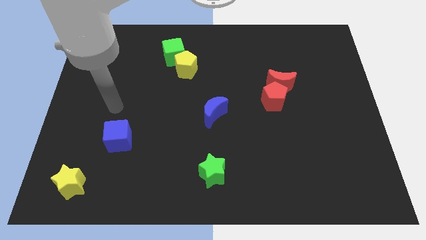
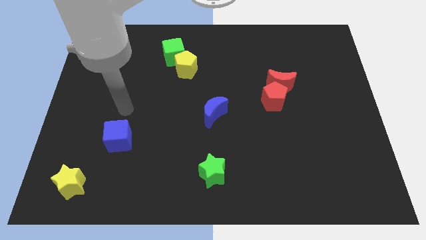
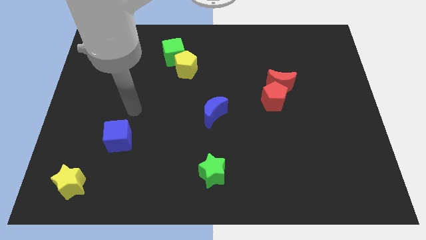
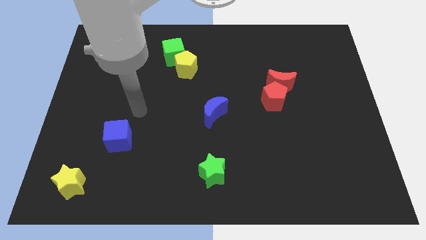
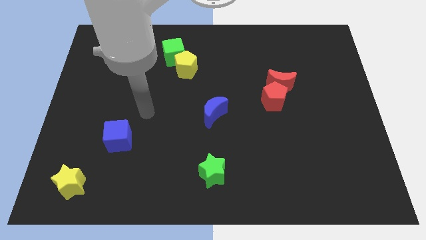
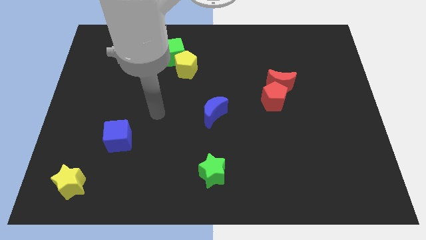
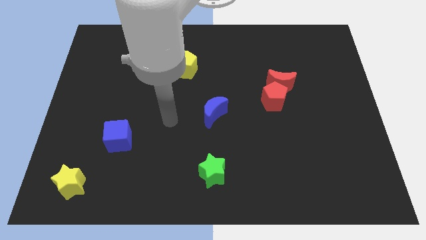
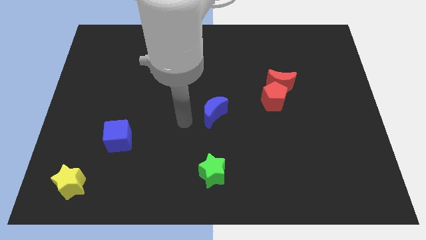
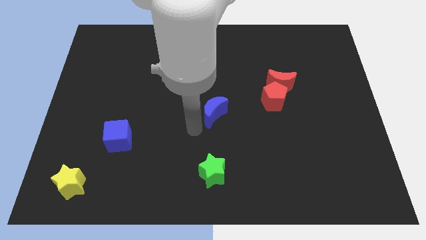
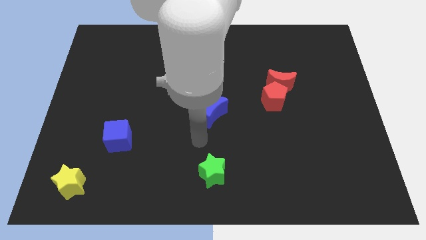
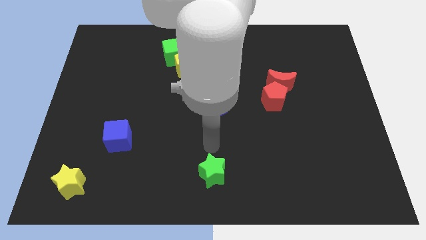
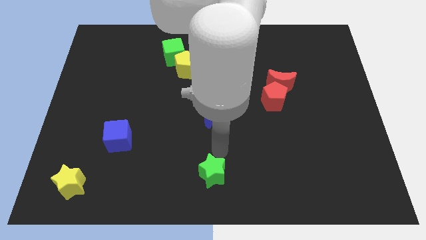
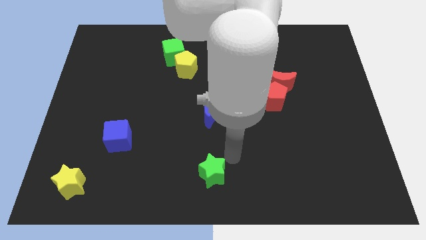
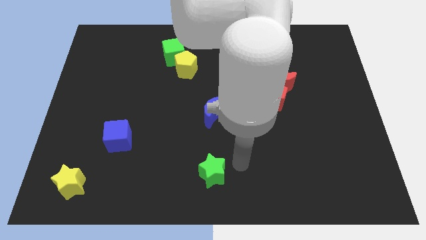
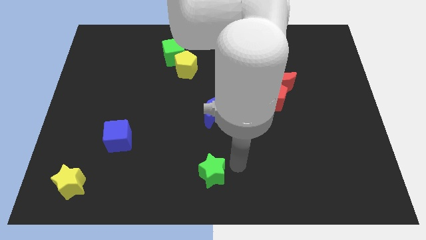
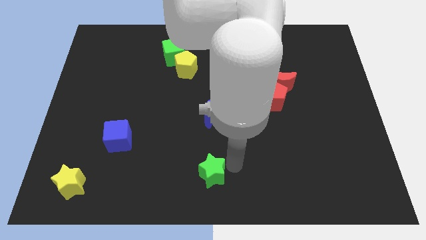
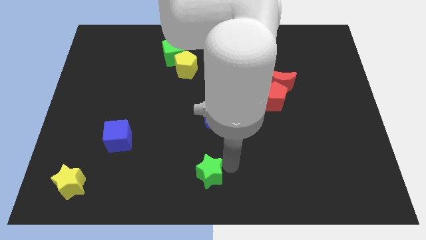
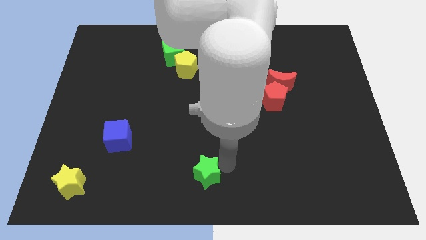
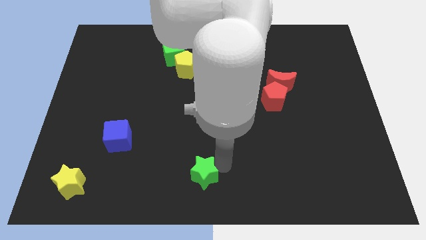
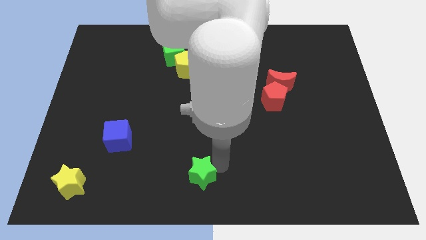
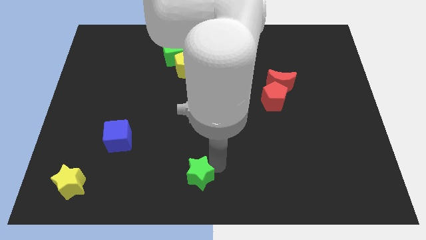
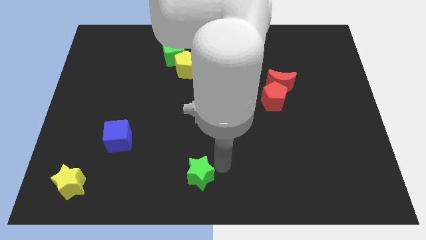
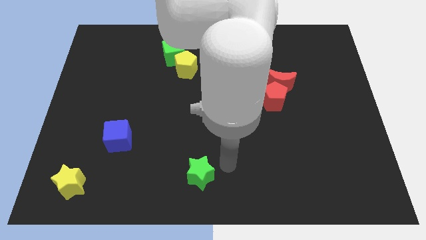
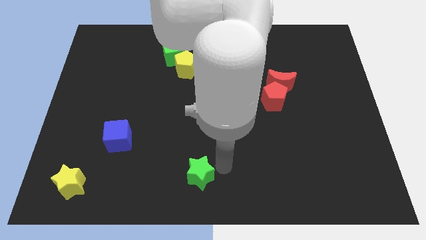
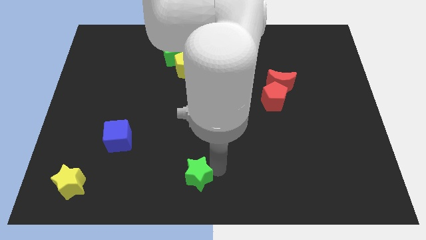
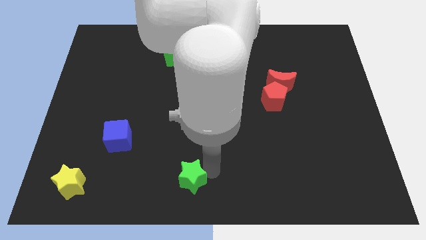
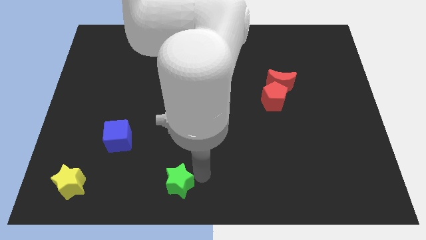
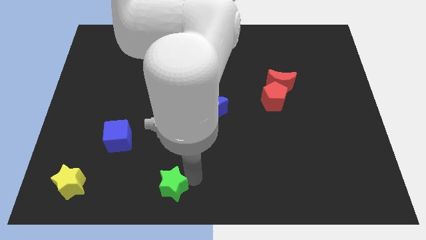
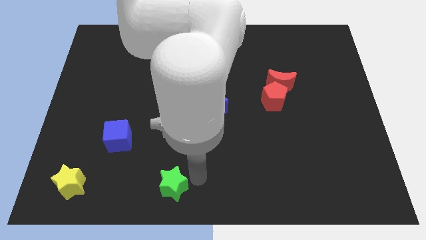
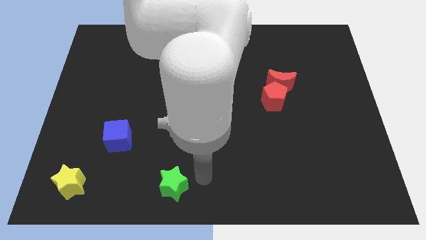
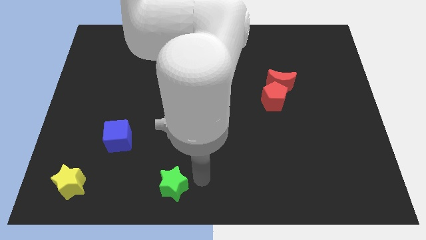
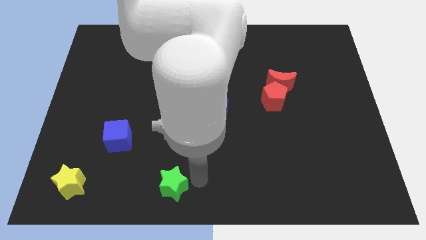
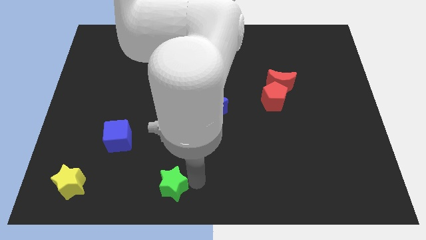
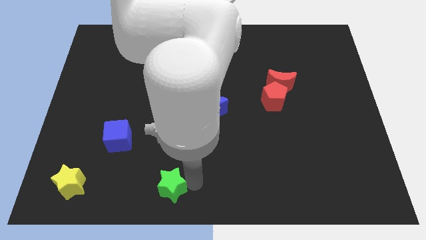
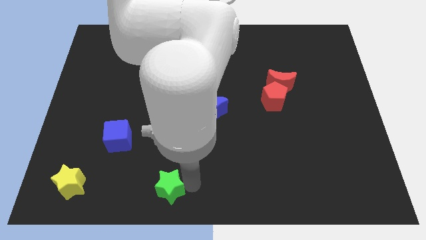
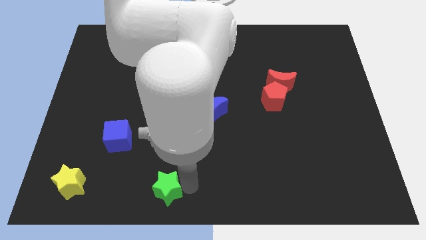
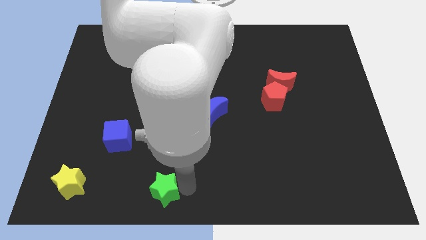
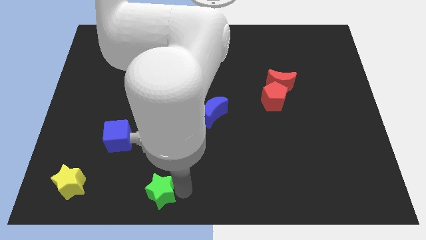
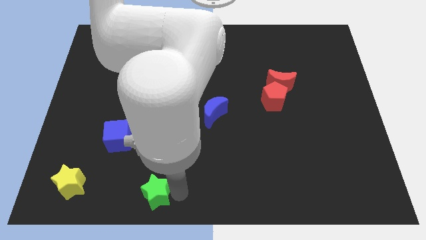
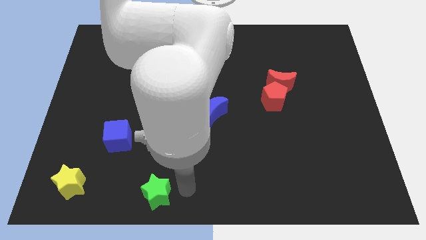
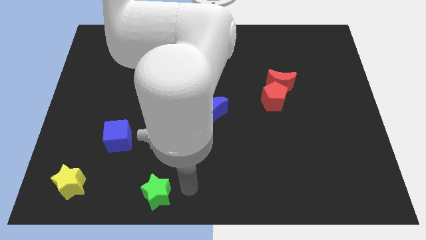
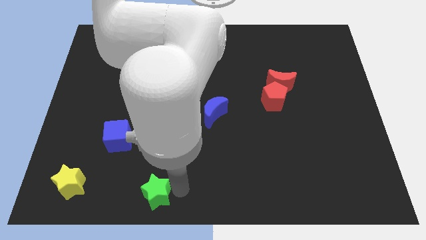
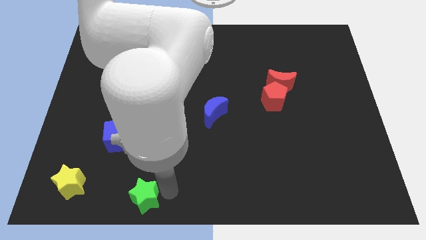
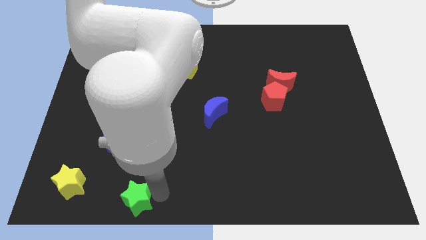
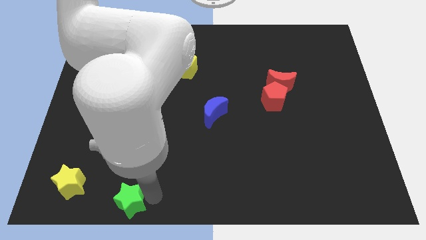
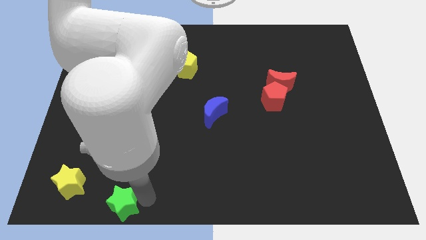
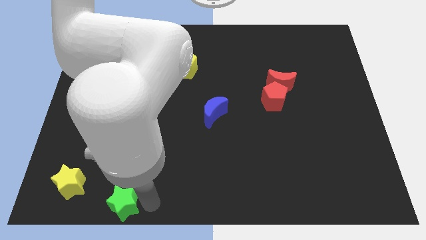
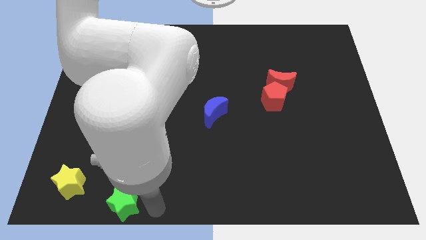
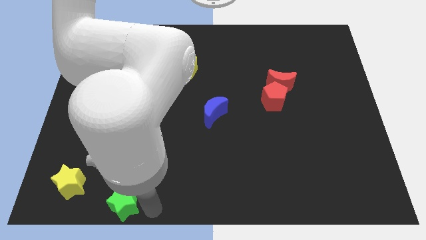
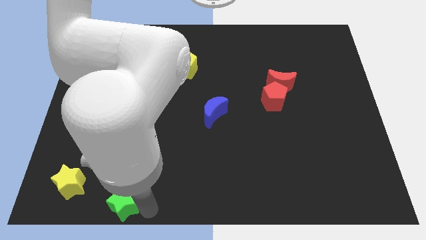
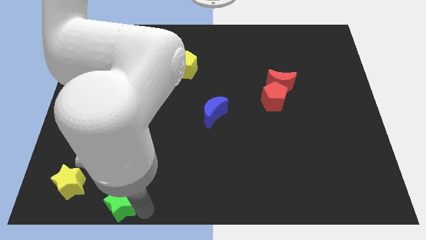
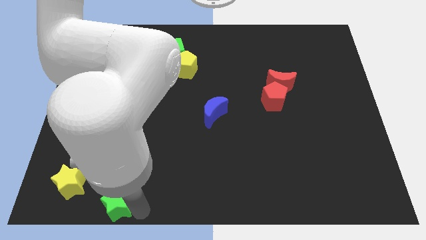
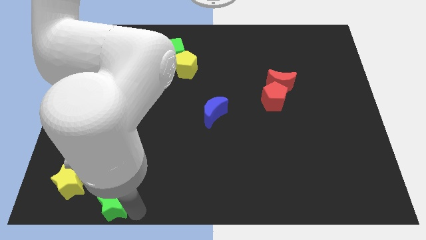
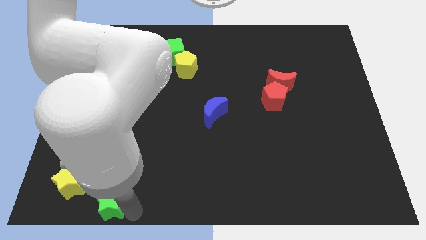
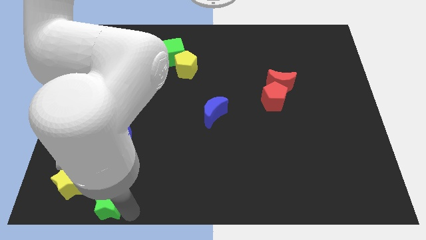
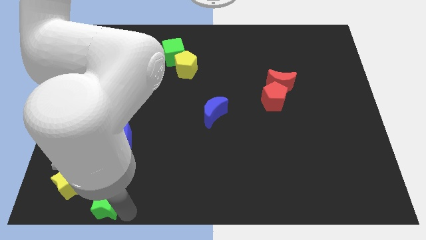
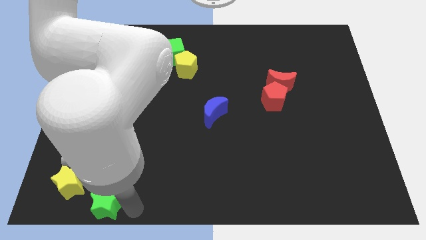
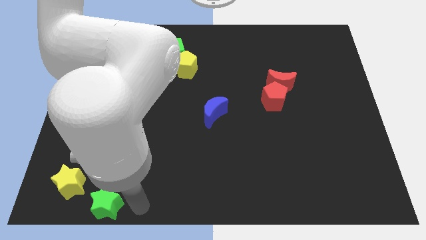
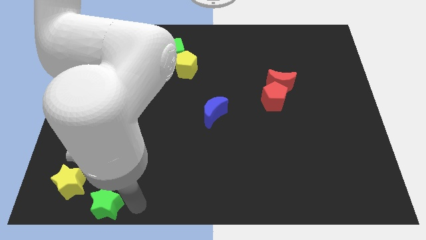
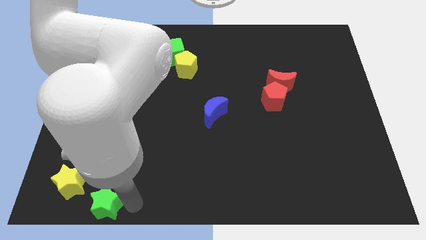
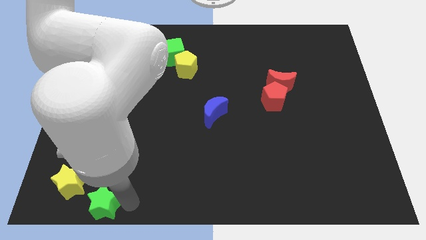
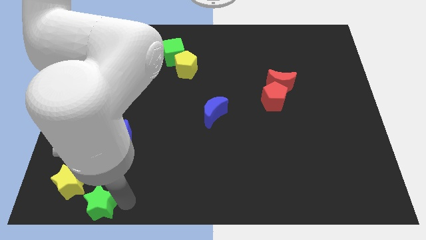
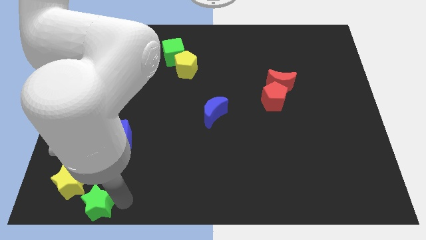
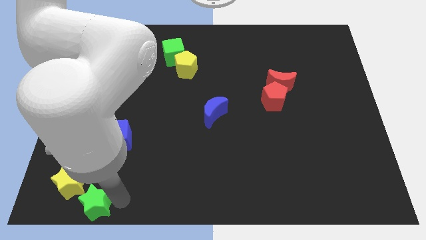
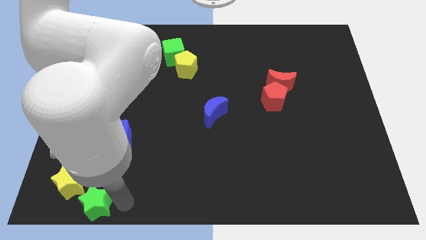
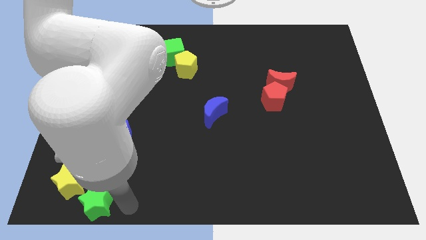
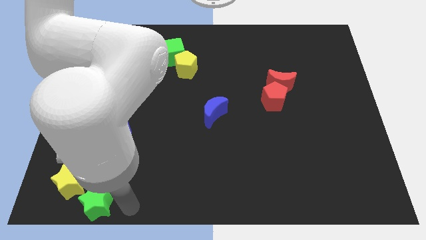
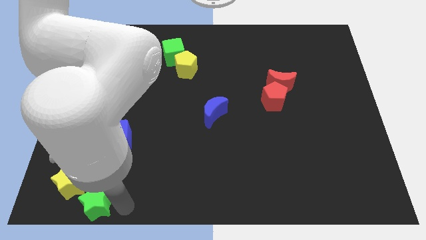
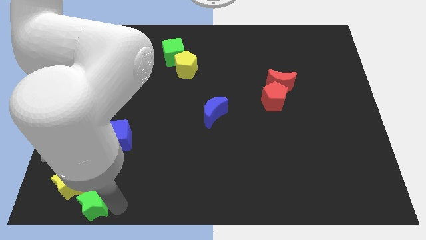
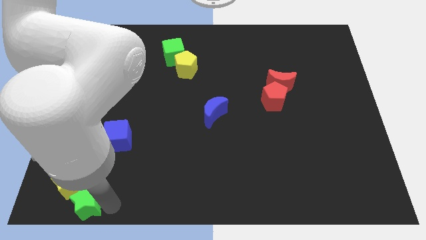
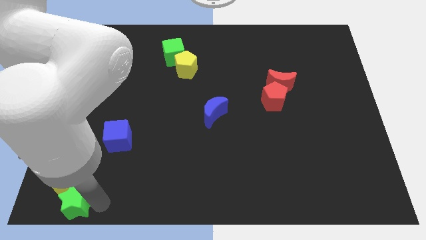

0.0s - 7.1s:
put the green star to the bottom left of the board

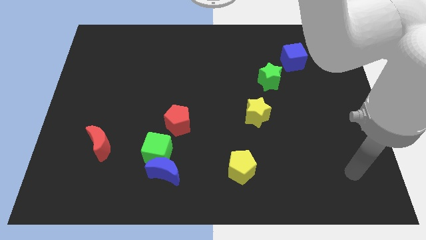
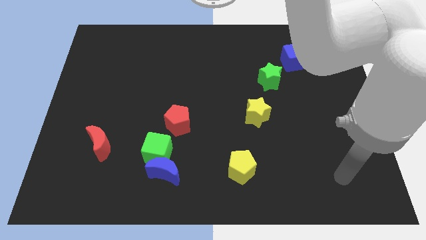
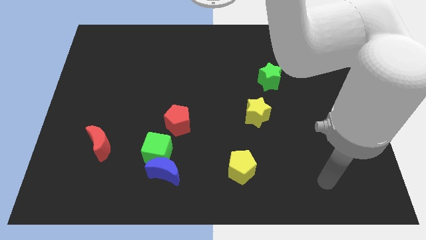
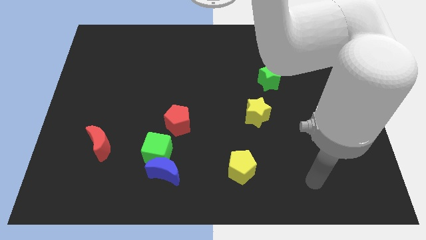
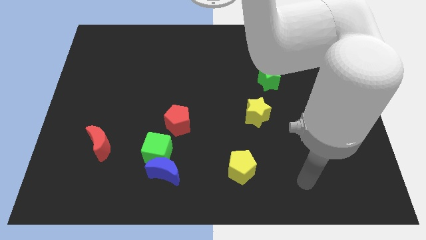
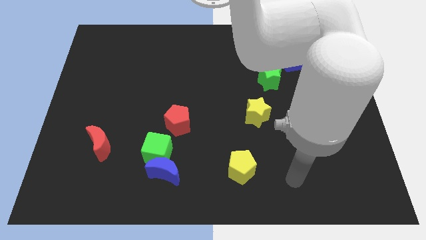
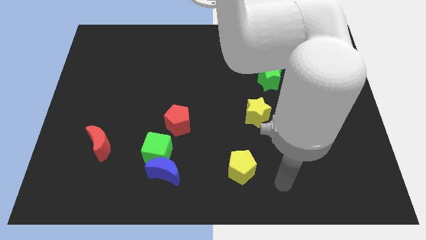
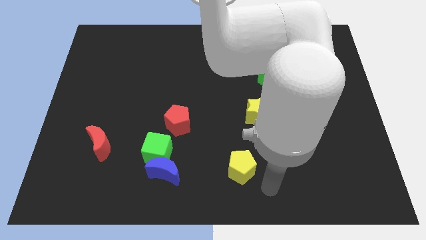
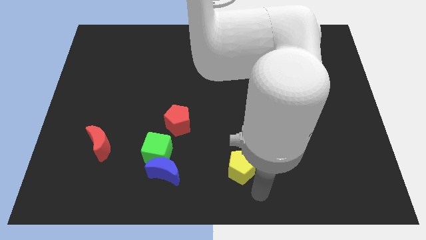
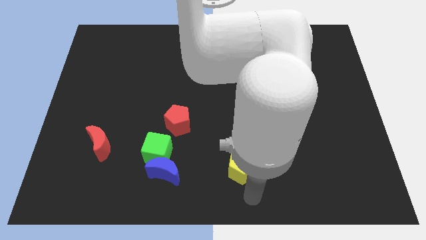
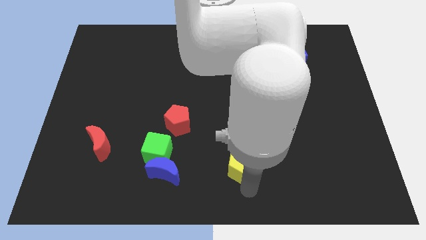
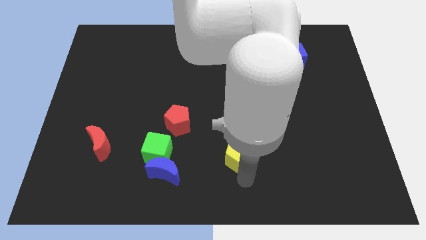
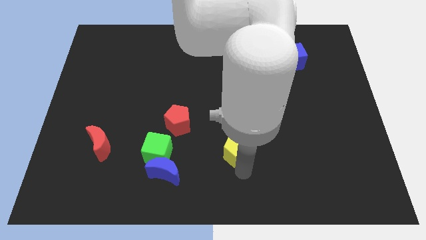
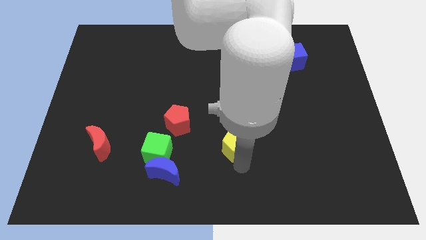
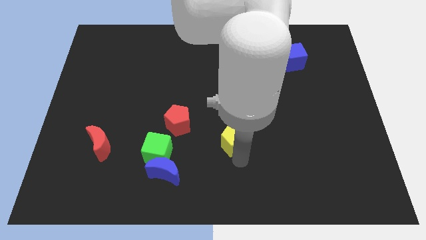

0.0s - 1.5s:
move the yellow pentagon to the center of the board
